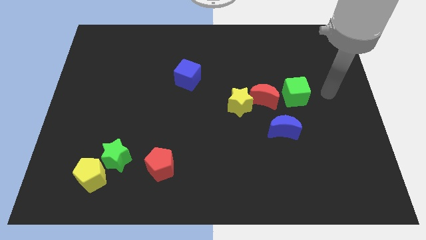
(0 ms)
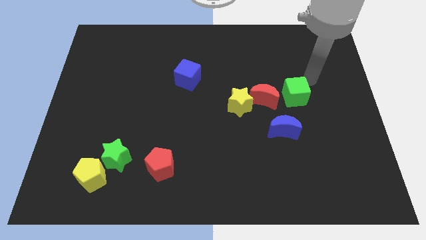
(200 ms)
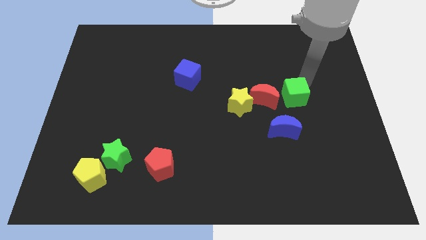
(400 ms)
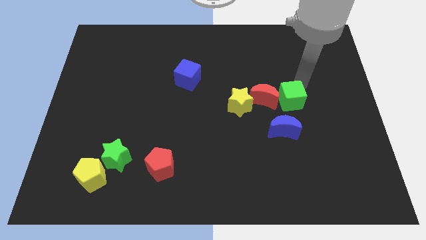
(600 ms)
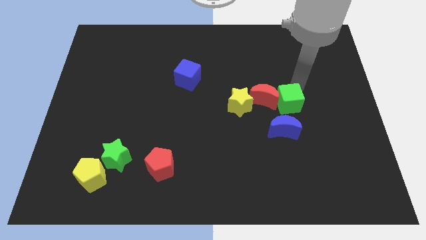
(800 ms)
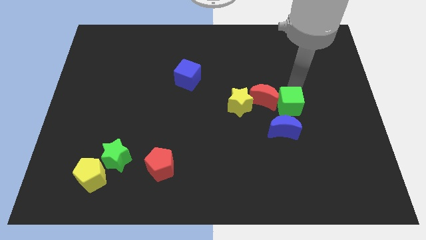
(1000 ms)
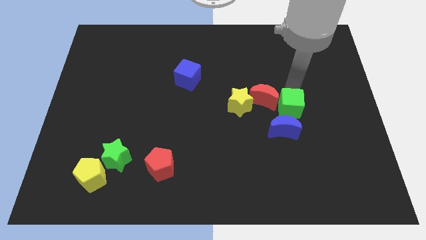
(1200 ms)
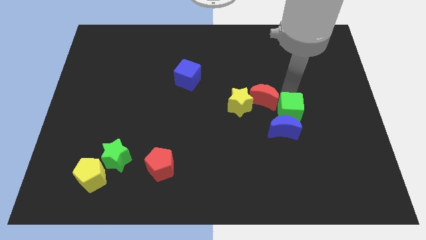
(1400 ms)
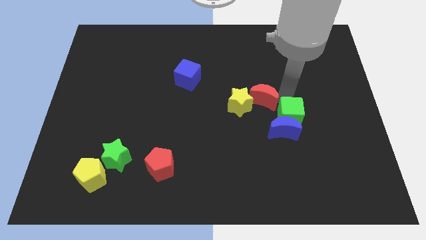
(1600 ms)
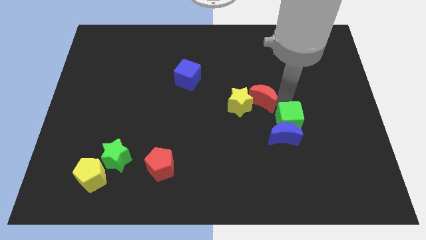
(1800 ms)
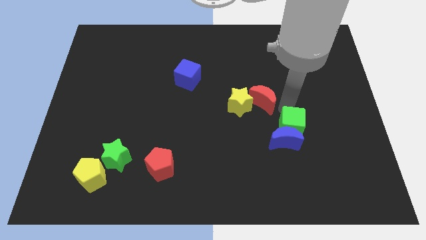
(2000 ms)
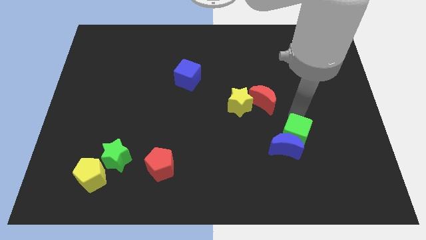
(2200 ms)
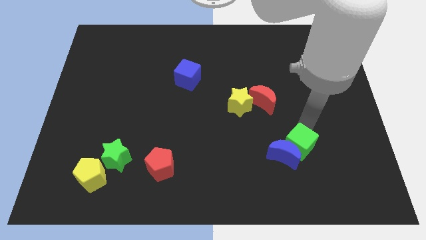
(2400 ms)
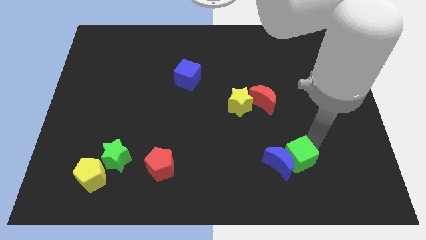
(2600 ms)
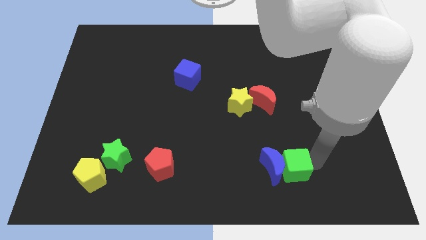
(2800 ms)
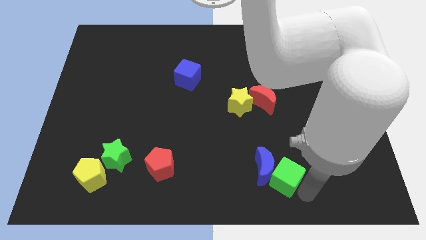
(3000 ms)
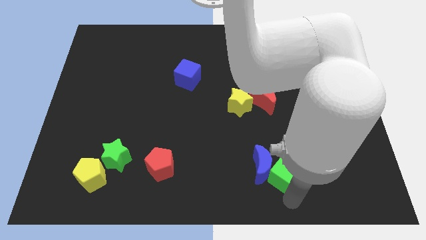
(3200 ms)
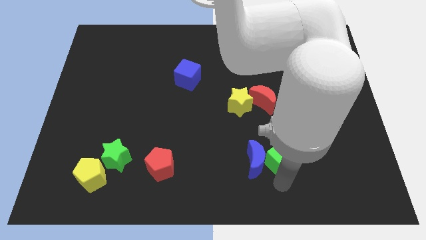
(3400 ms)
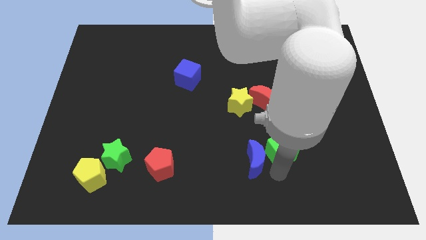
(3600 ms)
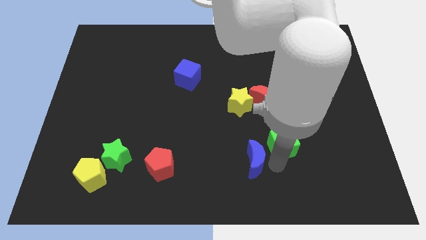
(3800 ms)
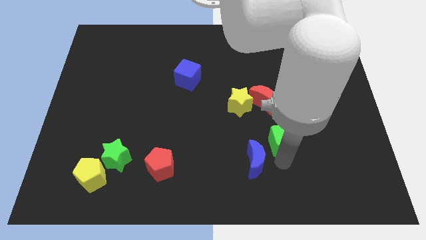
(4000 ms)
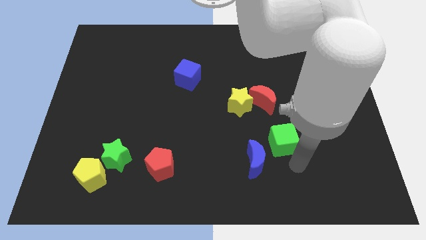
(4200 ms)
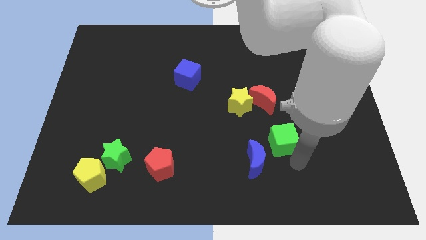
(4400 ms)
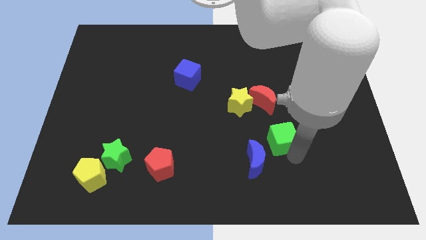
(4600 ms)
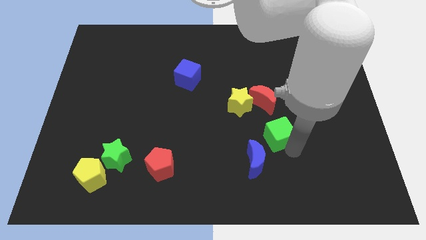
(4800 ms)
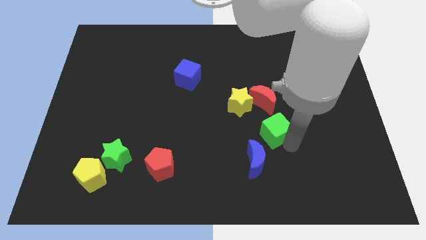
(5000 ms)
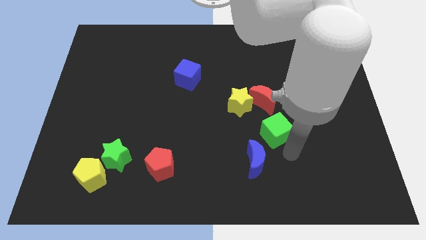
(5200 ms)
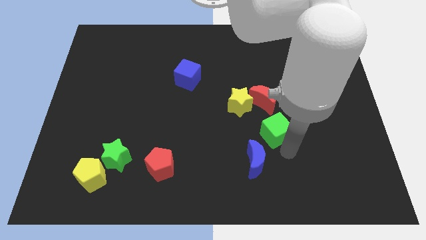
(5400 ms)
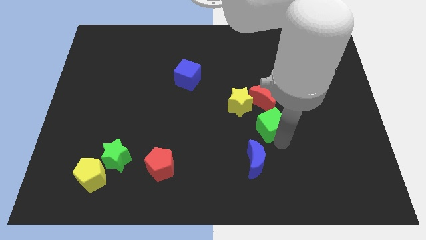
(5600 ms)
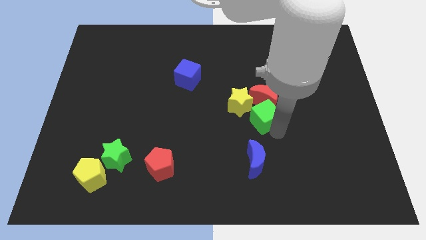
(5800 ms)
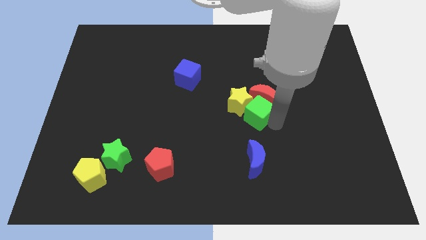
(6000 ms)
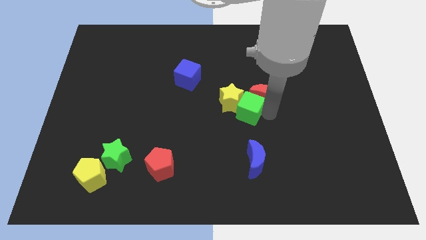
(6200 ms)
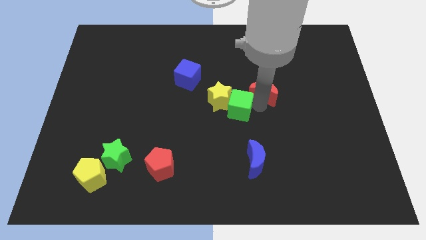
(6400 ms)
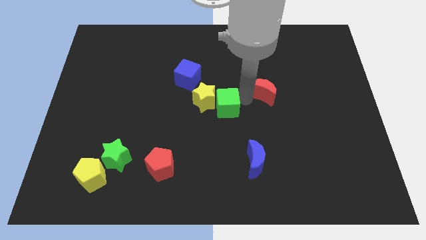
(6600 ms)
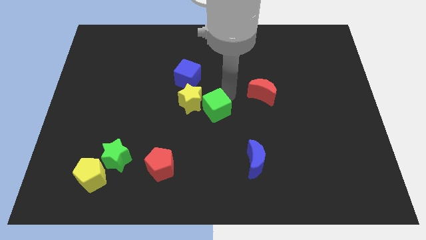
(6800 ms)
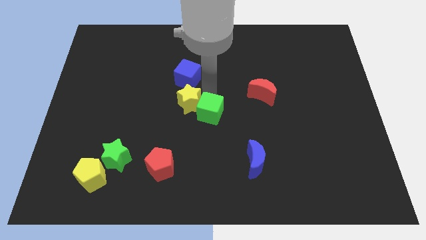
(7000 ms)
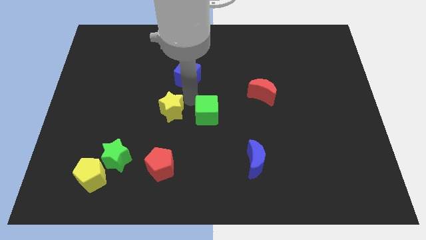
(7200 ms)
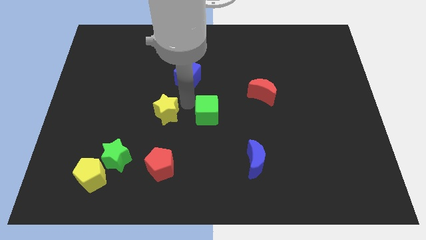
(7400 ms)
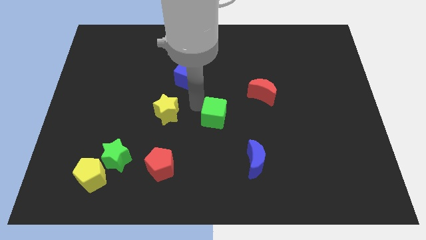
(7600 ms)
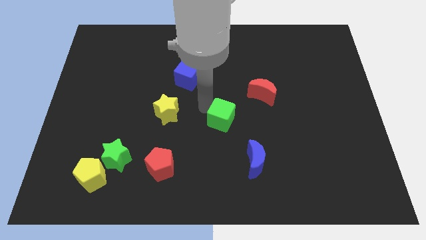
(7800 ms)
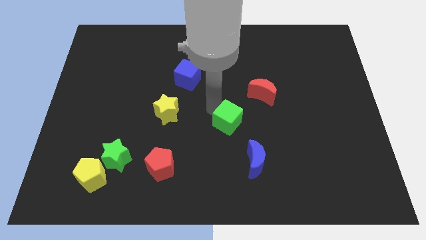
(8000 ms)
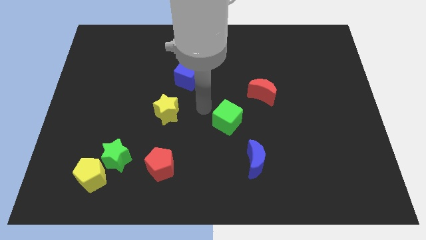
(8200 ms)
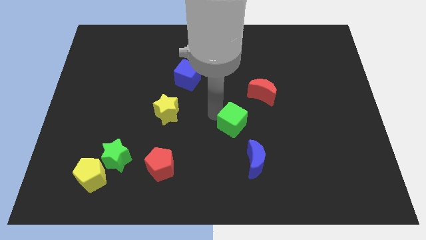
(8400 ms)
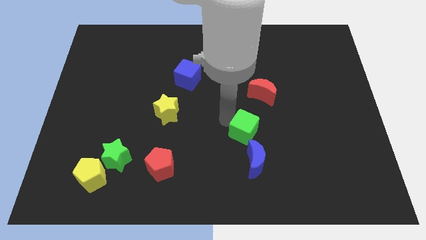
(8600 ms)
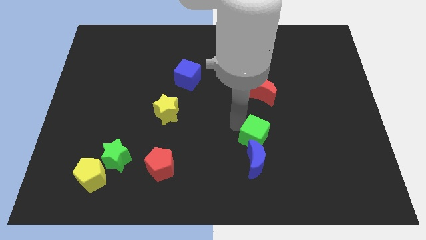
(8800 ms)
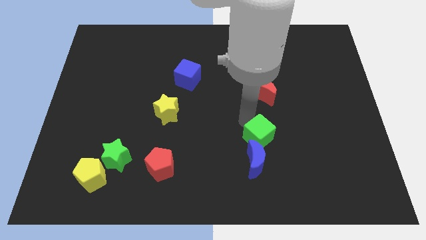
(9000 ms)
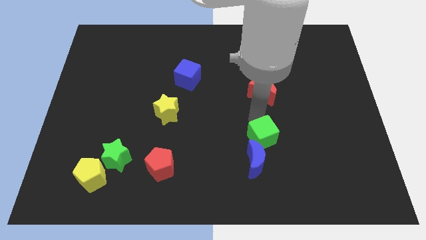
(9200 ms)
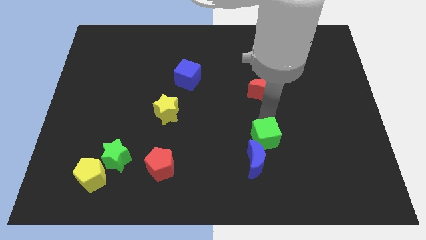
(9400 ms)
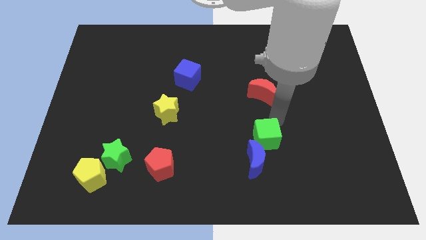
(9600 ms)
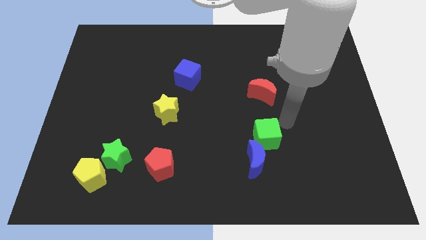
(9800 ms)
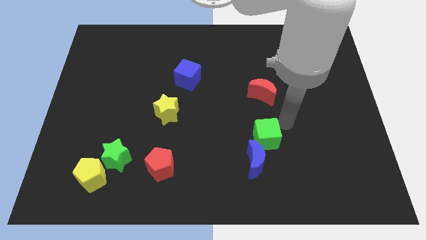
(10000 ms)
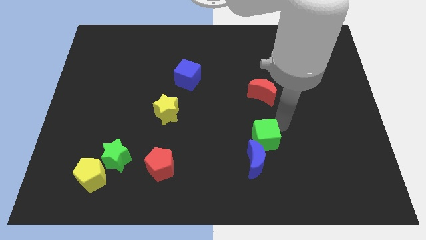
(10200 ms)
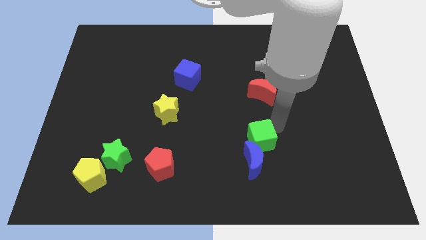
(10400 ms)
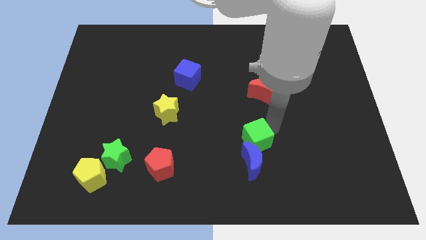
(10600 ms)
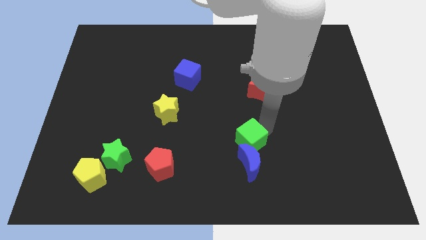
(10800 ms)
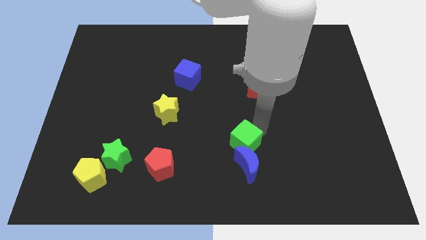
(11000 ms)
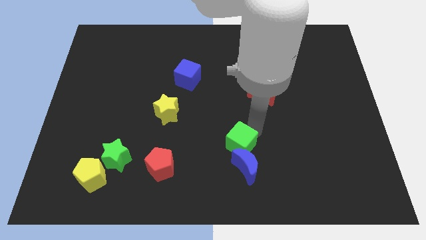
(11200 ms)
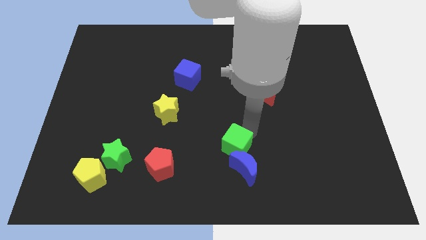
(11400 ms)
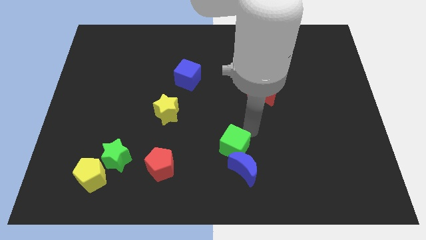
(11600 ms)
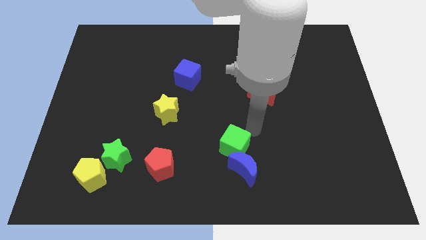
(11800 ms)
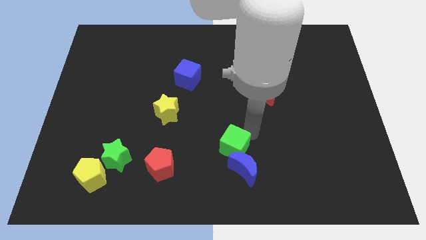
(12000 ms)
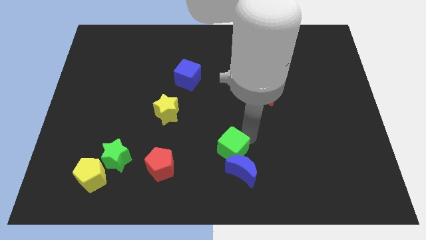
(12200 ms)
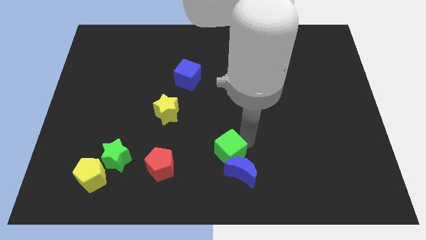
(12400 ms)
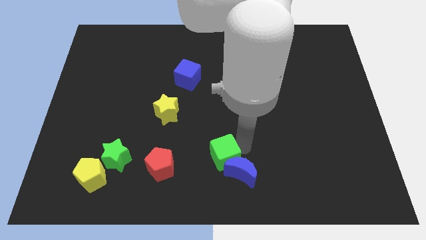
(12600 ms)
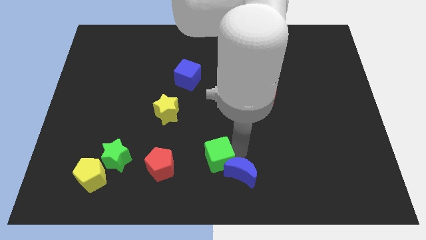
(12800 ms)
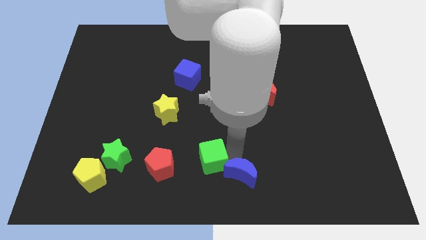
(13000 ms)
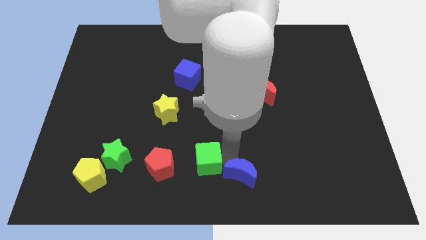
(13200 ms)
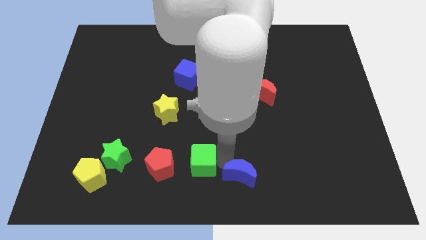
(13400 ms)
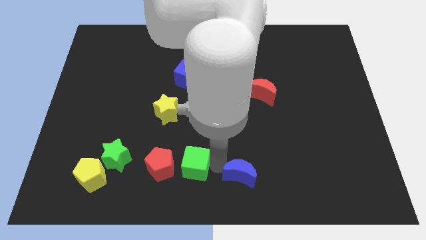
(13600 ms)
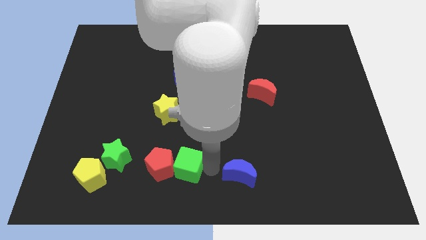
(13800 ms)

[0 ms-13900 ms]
slide the green cube to the right of the green star
